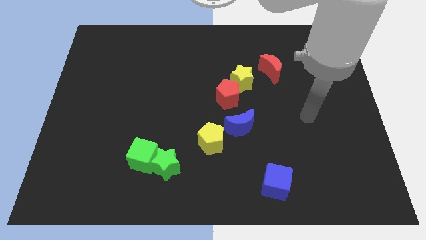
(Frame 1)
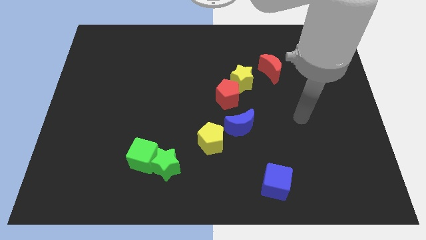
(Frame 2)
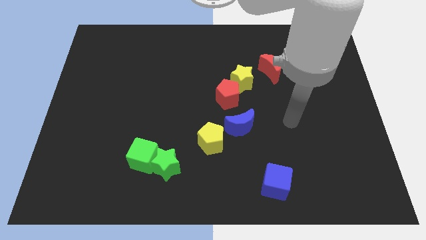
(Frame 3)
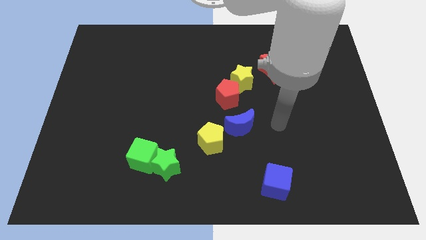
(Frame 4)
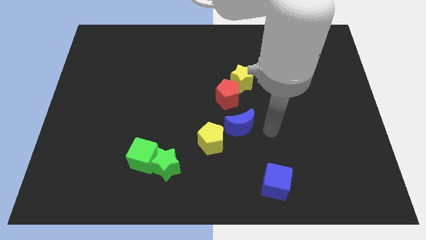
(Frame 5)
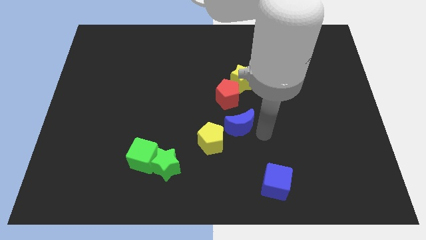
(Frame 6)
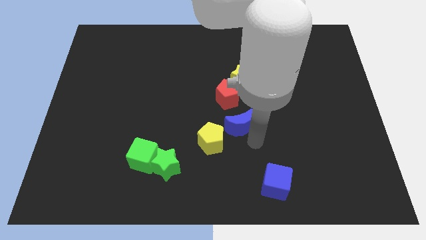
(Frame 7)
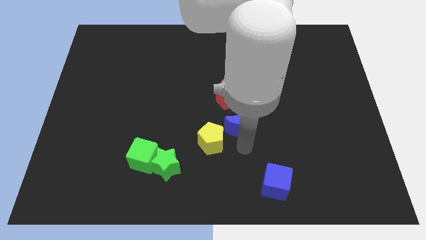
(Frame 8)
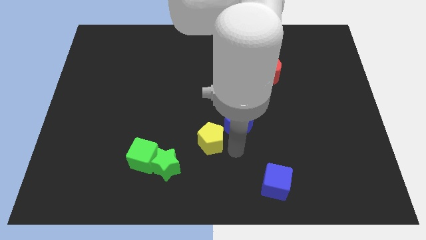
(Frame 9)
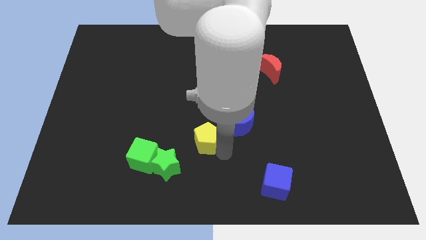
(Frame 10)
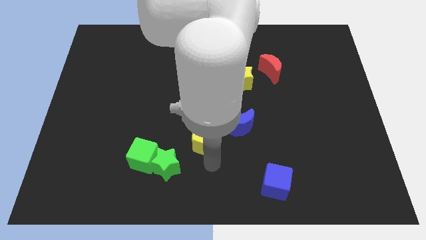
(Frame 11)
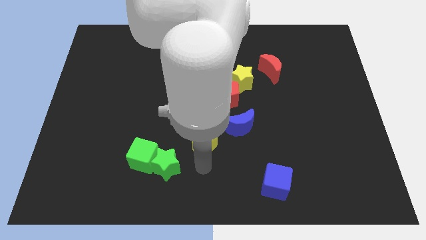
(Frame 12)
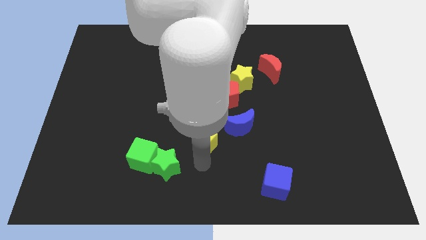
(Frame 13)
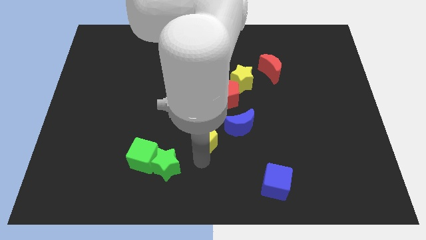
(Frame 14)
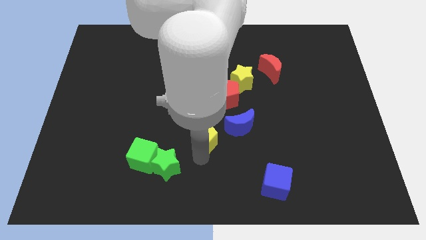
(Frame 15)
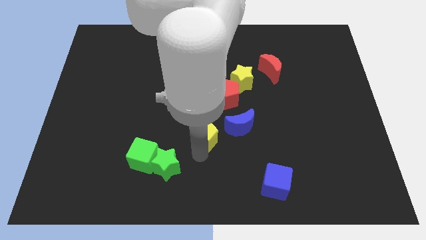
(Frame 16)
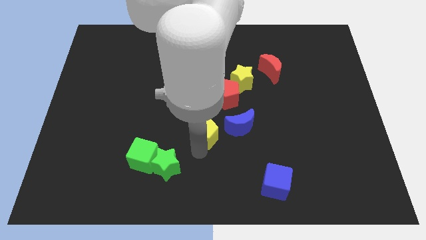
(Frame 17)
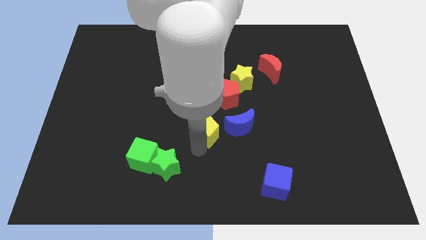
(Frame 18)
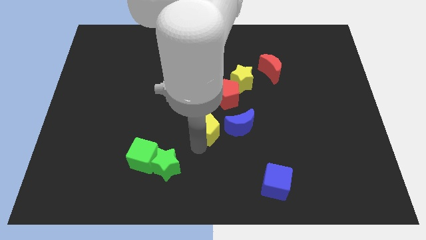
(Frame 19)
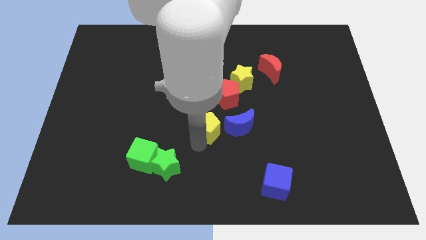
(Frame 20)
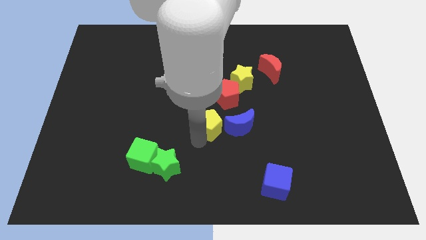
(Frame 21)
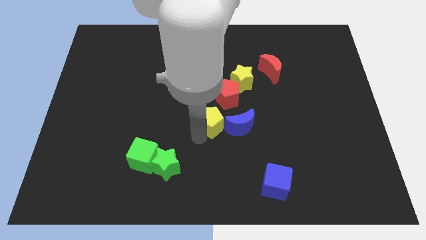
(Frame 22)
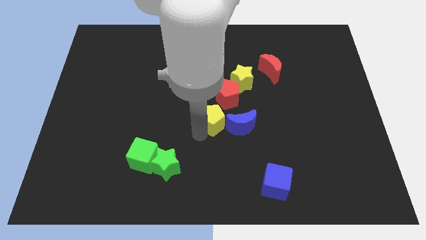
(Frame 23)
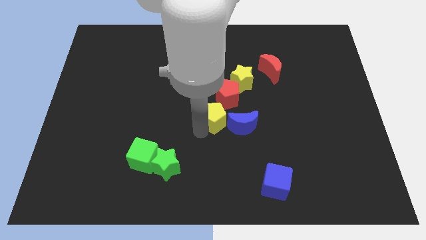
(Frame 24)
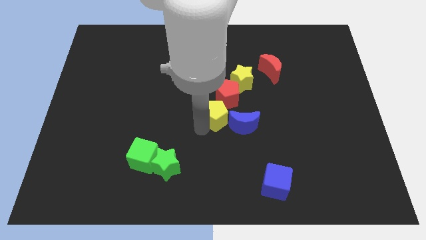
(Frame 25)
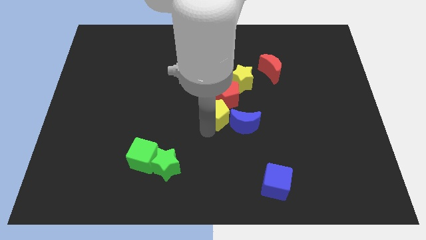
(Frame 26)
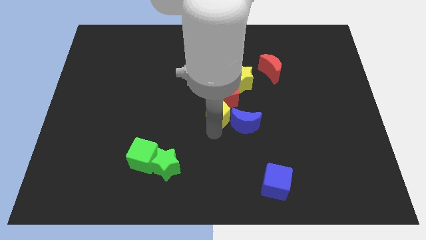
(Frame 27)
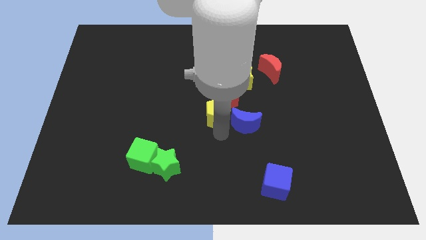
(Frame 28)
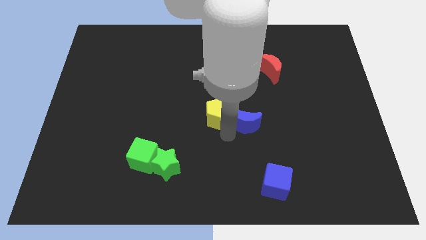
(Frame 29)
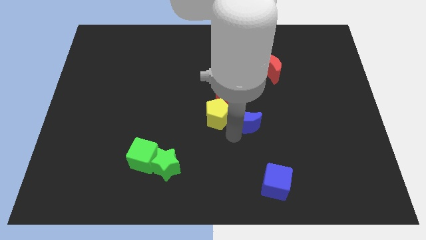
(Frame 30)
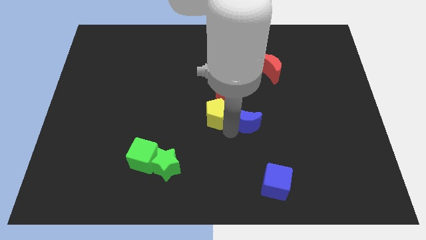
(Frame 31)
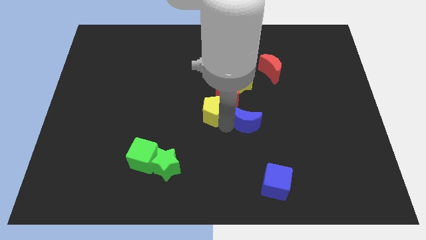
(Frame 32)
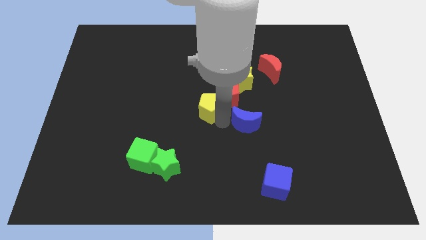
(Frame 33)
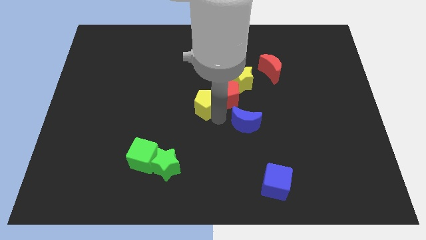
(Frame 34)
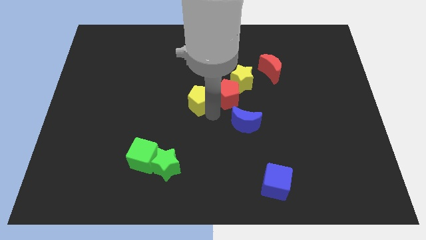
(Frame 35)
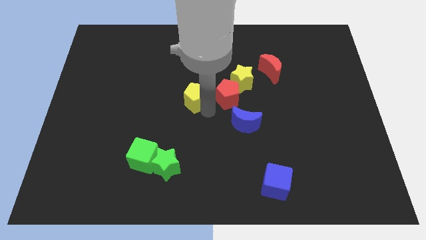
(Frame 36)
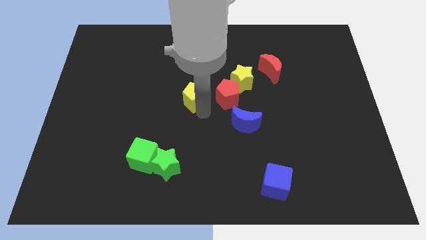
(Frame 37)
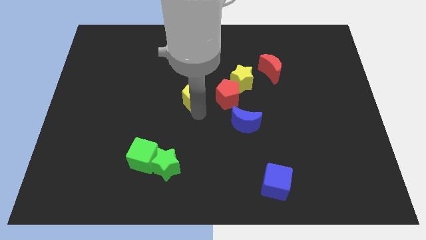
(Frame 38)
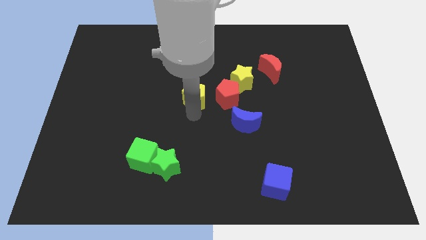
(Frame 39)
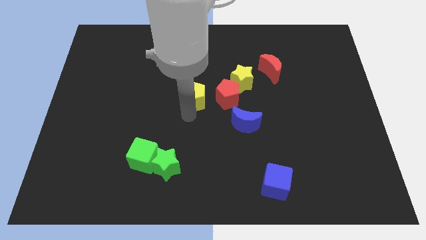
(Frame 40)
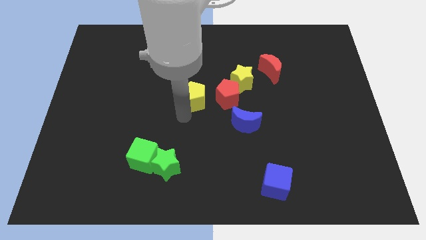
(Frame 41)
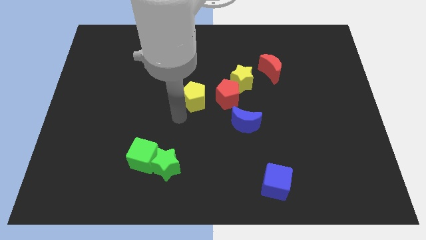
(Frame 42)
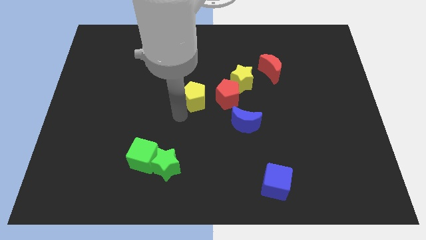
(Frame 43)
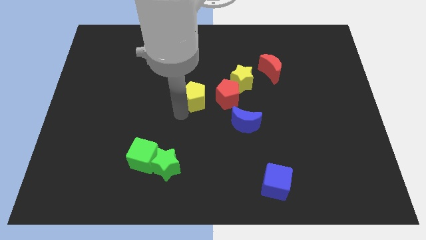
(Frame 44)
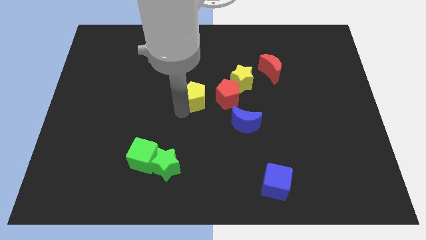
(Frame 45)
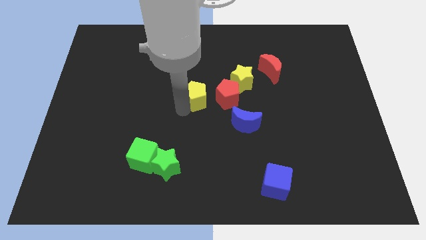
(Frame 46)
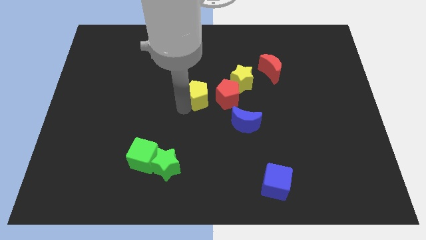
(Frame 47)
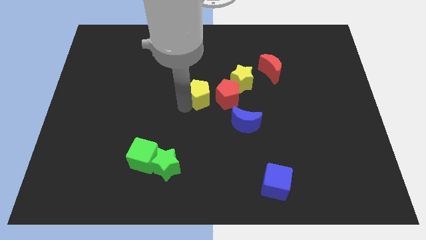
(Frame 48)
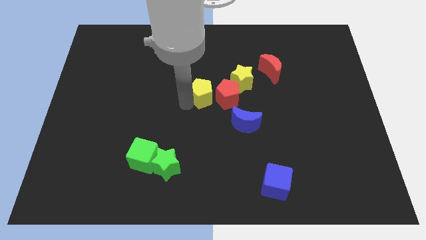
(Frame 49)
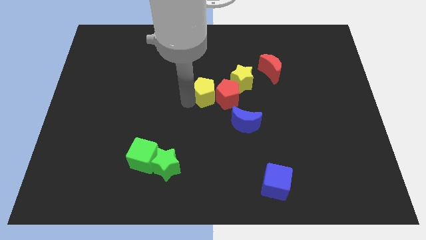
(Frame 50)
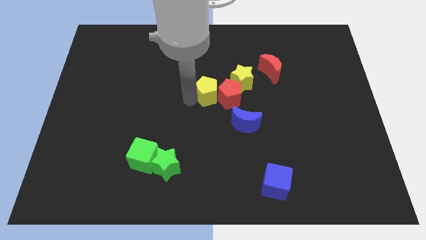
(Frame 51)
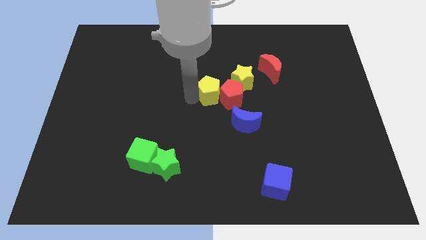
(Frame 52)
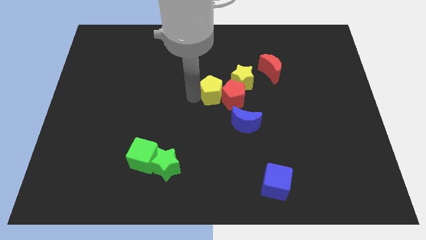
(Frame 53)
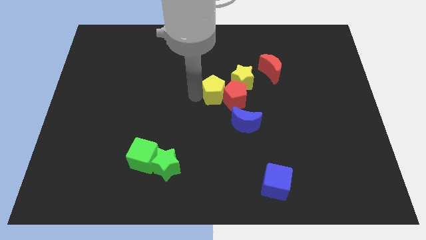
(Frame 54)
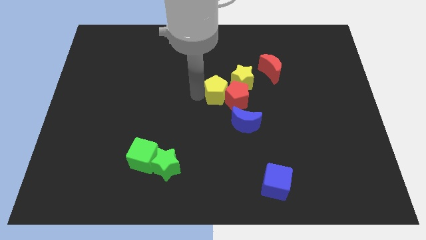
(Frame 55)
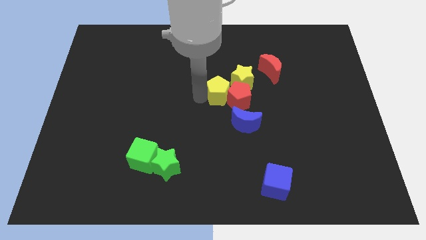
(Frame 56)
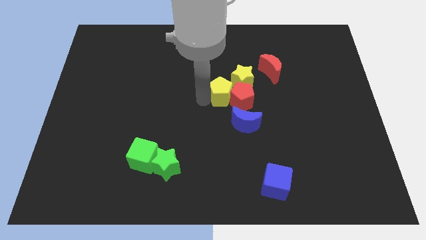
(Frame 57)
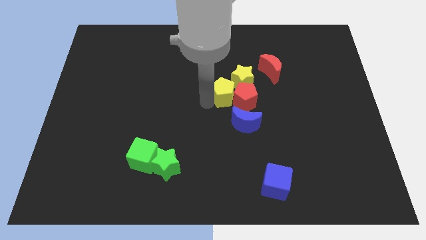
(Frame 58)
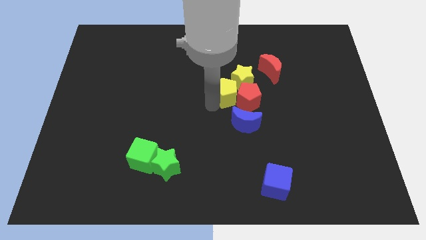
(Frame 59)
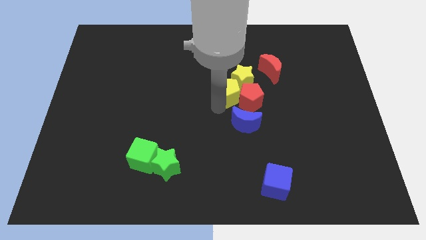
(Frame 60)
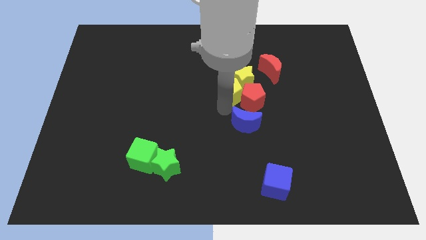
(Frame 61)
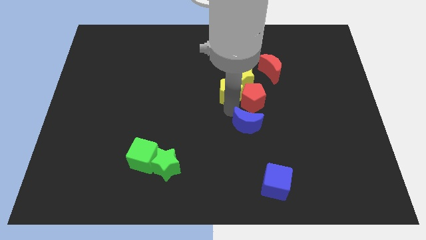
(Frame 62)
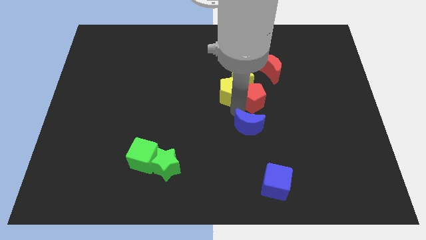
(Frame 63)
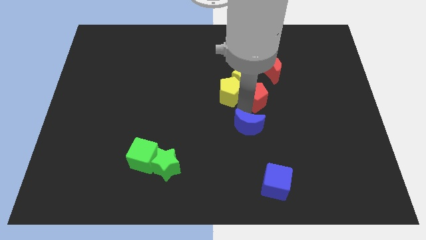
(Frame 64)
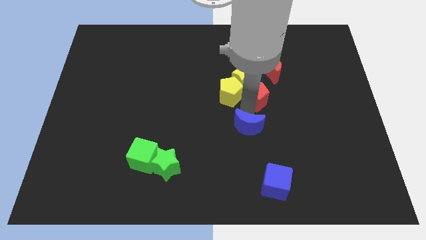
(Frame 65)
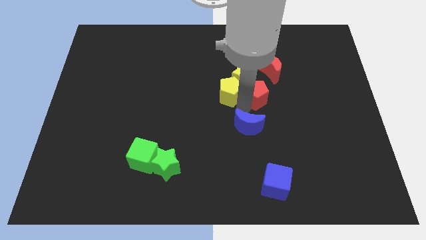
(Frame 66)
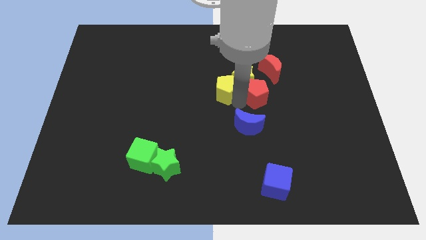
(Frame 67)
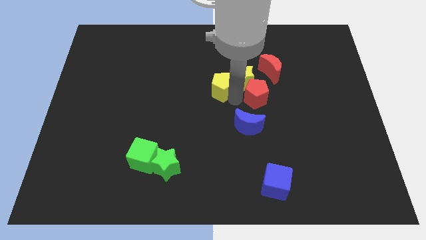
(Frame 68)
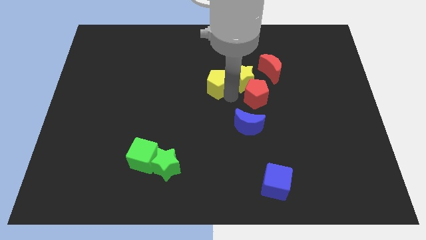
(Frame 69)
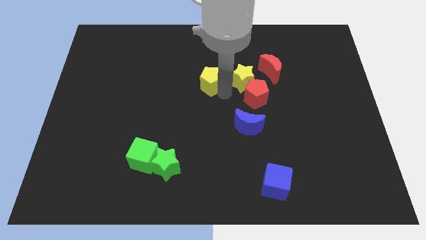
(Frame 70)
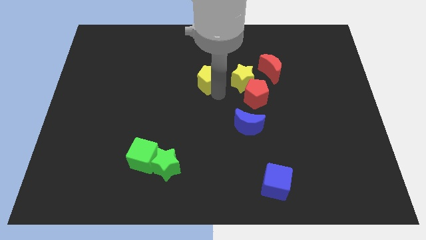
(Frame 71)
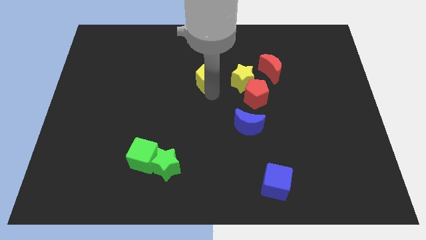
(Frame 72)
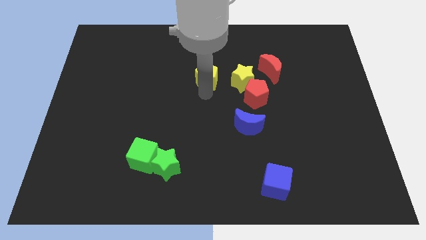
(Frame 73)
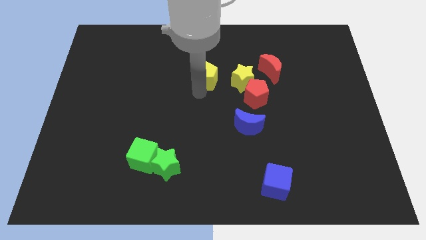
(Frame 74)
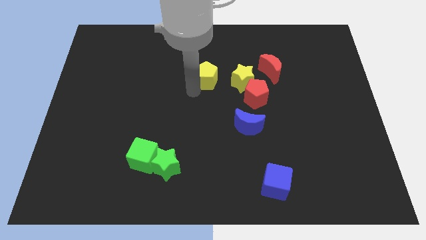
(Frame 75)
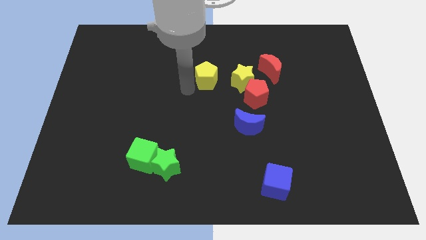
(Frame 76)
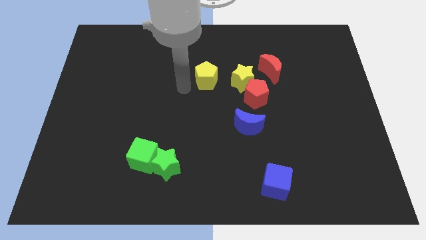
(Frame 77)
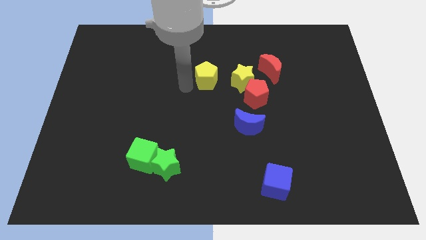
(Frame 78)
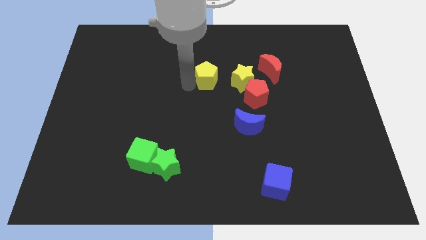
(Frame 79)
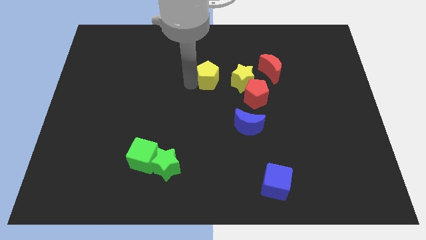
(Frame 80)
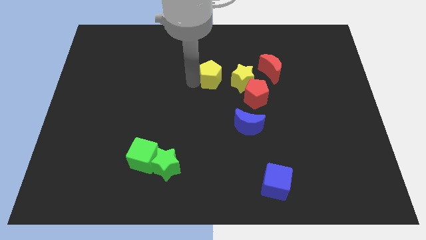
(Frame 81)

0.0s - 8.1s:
push the yellow pentagon to the left side of the red moon
